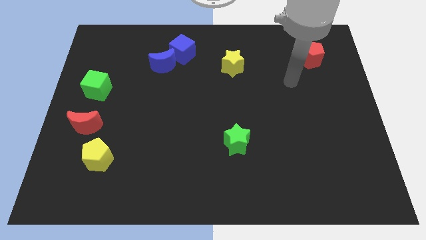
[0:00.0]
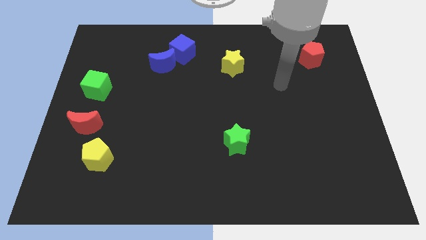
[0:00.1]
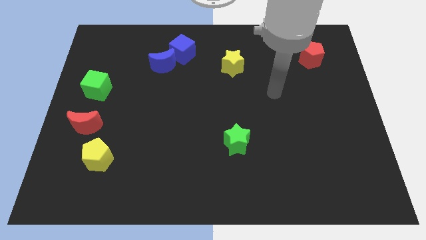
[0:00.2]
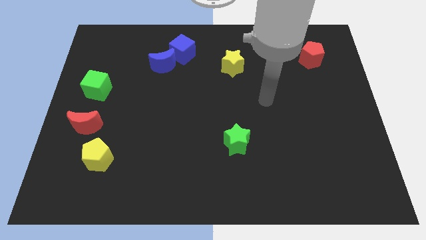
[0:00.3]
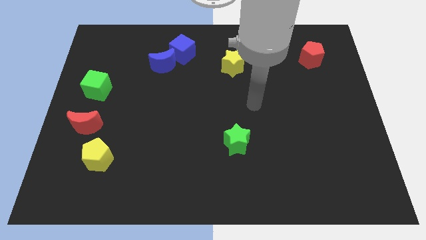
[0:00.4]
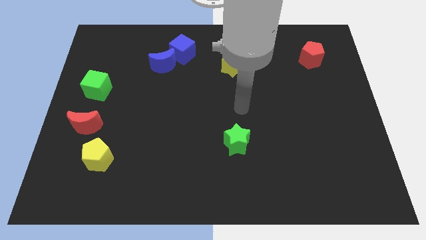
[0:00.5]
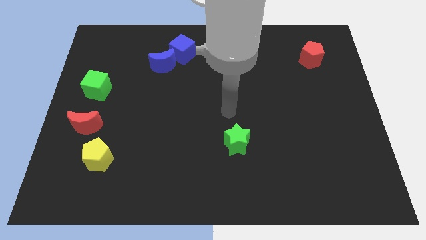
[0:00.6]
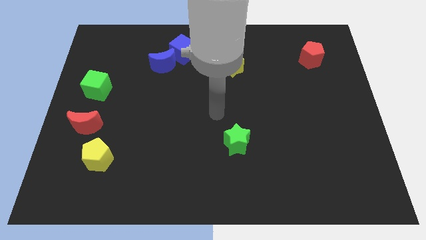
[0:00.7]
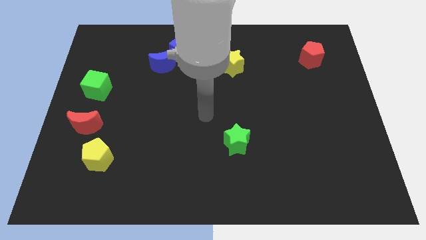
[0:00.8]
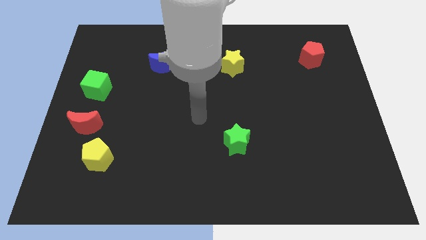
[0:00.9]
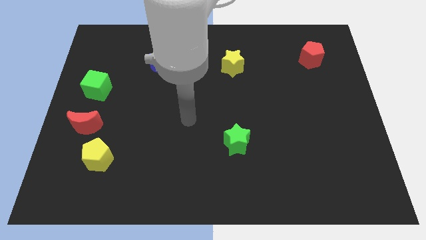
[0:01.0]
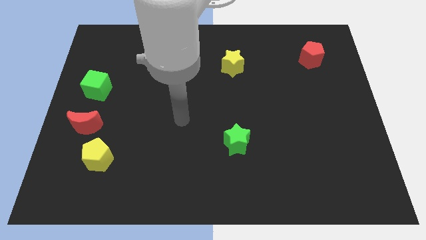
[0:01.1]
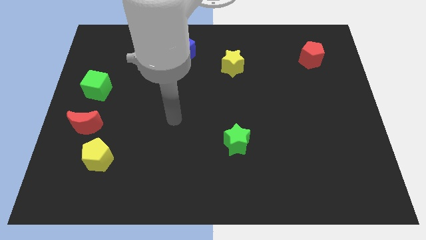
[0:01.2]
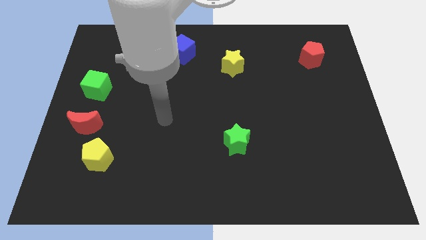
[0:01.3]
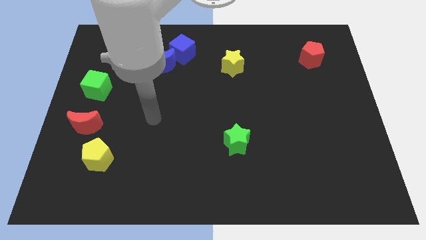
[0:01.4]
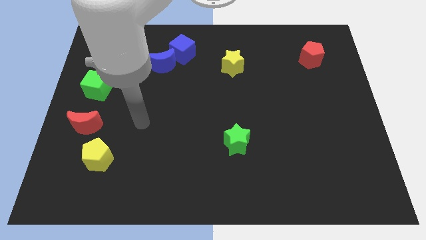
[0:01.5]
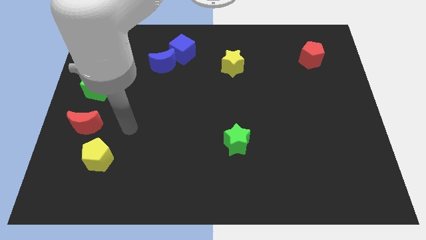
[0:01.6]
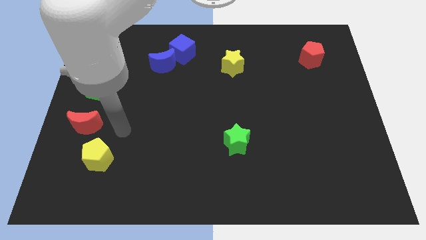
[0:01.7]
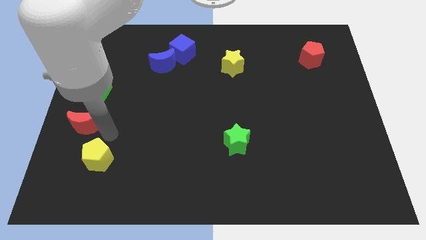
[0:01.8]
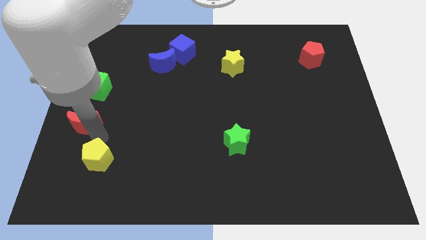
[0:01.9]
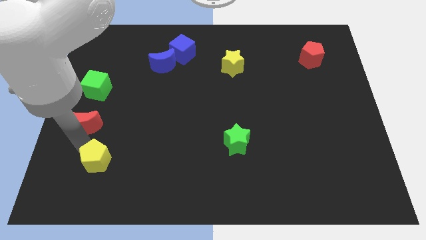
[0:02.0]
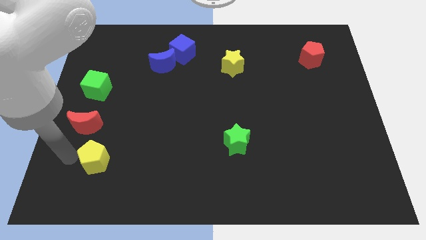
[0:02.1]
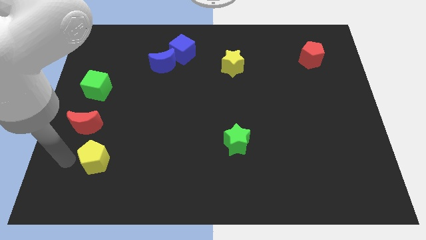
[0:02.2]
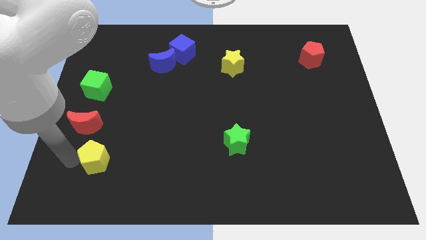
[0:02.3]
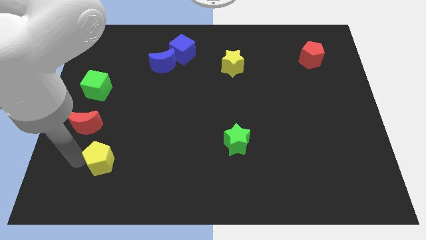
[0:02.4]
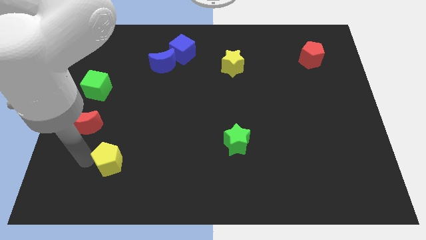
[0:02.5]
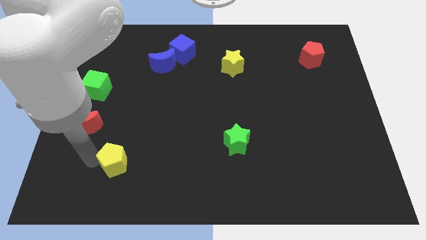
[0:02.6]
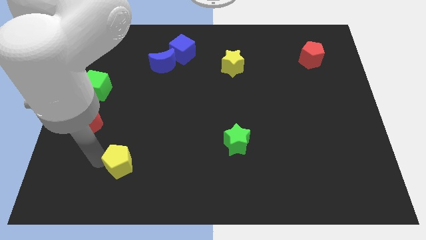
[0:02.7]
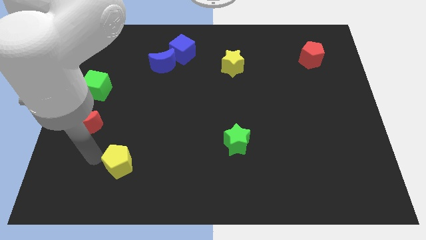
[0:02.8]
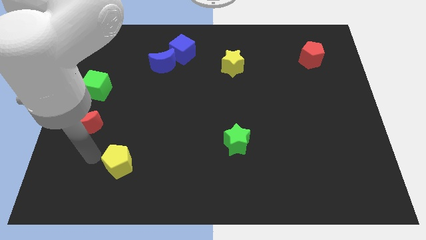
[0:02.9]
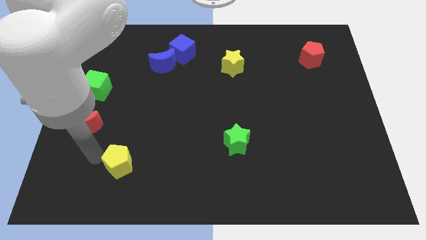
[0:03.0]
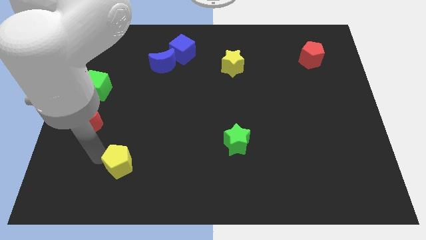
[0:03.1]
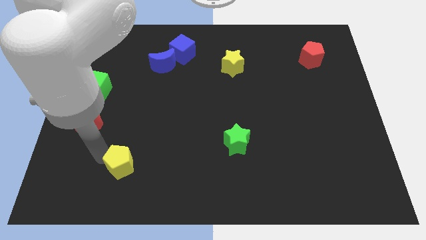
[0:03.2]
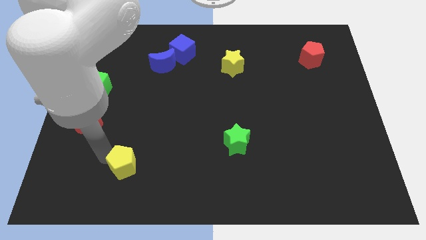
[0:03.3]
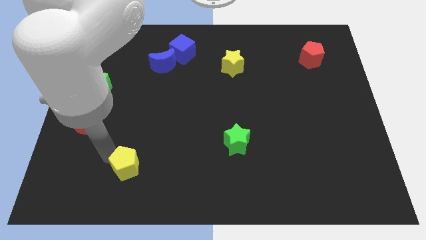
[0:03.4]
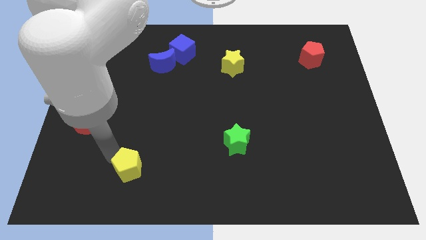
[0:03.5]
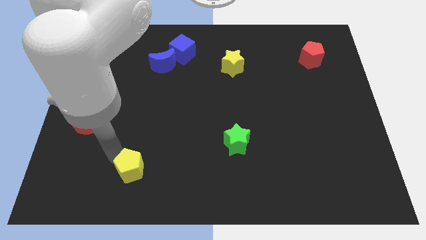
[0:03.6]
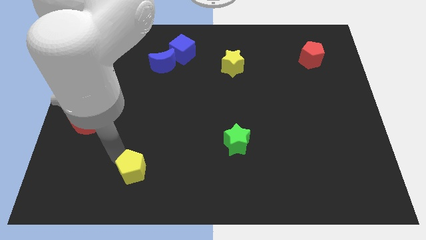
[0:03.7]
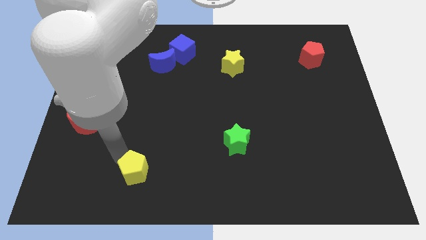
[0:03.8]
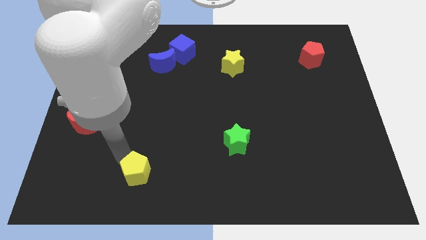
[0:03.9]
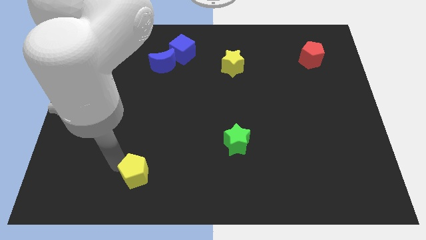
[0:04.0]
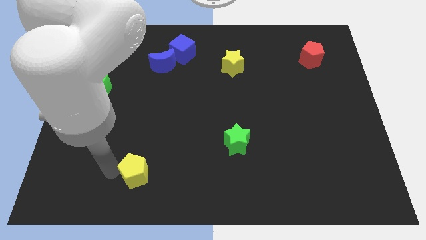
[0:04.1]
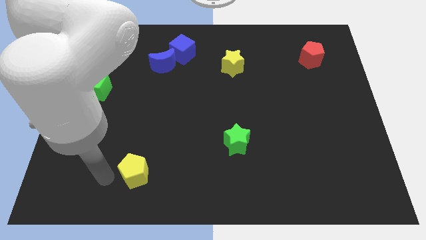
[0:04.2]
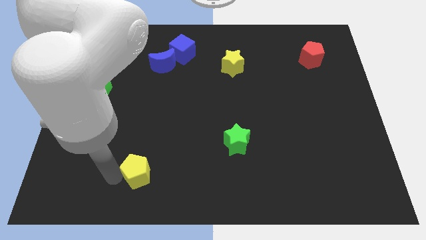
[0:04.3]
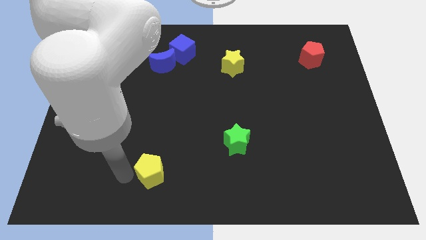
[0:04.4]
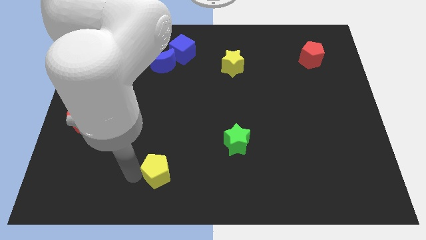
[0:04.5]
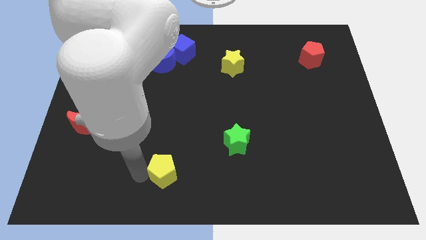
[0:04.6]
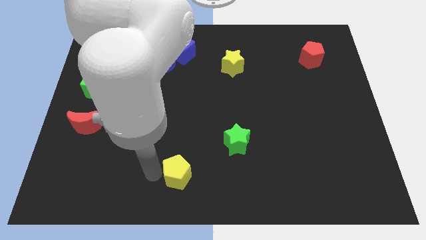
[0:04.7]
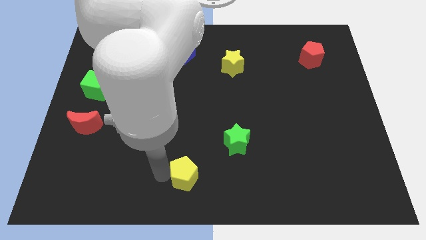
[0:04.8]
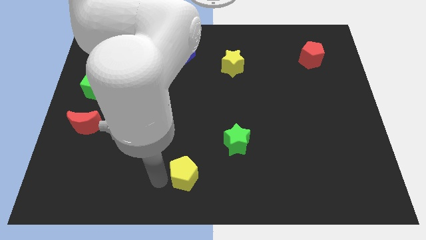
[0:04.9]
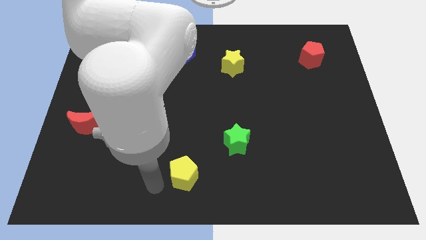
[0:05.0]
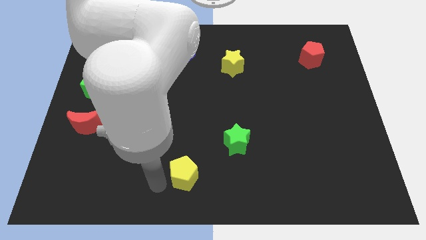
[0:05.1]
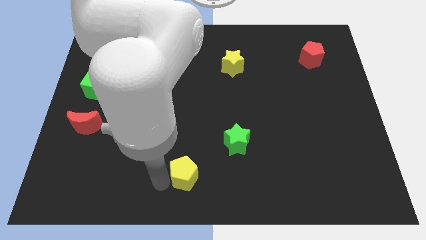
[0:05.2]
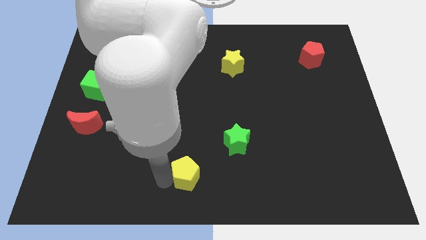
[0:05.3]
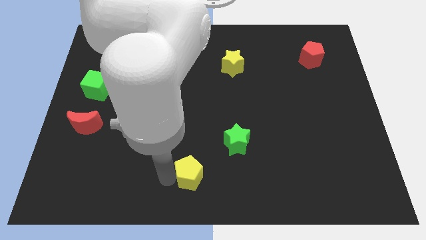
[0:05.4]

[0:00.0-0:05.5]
push the yellow pentagon diagonally down and to the left of the green star

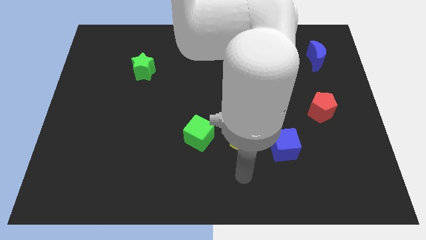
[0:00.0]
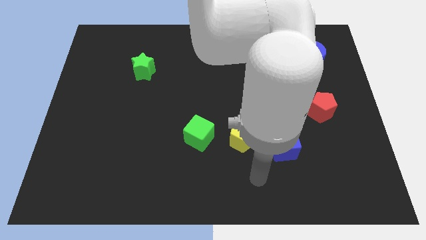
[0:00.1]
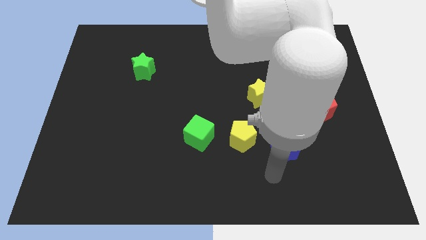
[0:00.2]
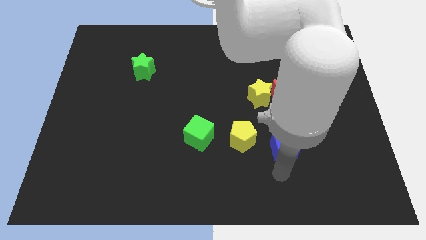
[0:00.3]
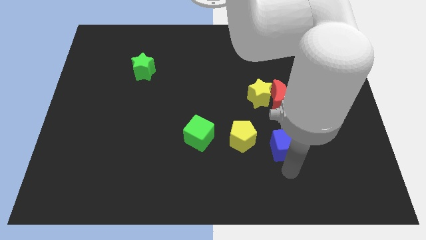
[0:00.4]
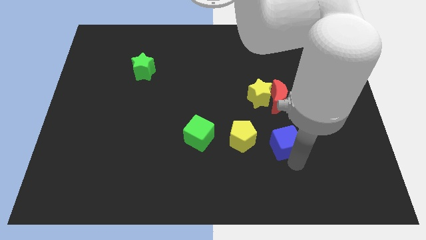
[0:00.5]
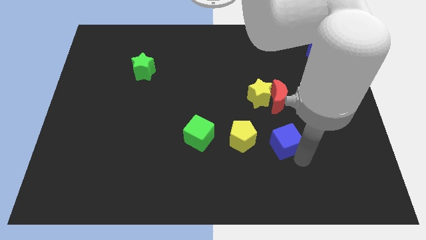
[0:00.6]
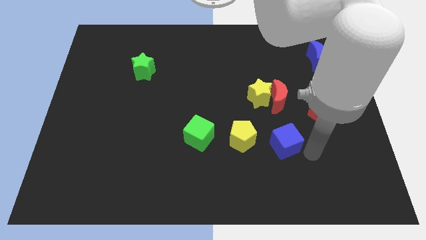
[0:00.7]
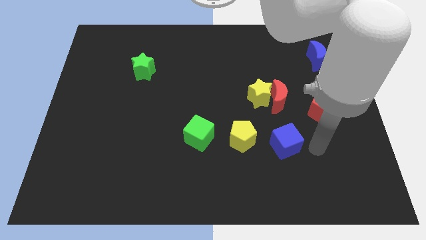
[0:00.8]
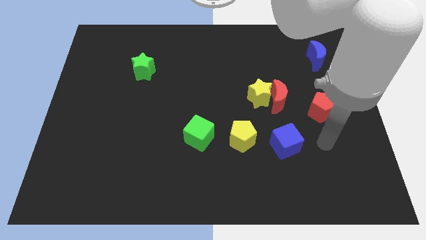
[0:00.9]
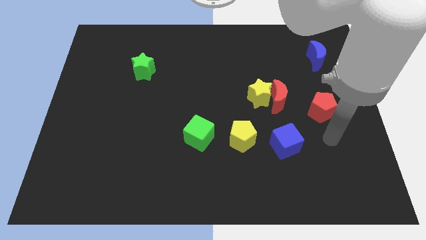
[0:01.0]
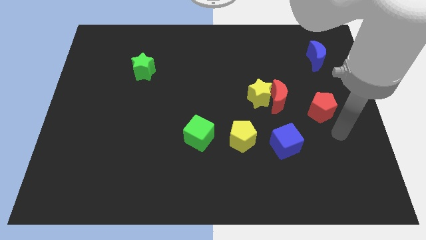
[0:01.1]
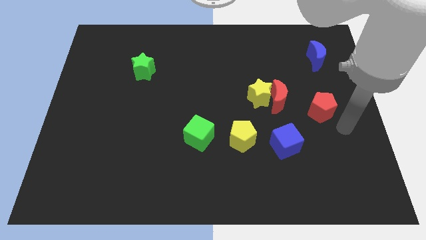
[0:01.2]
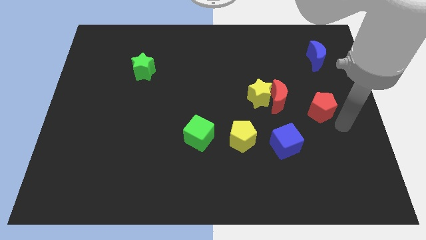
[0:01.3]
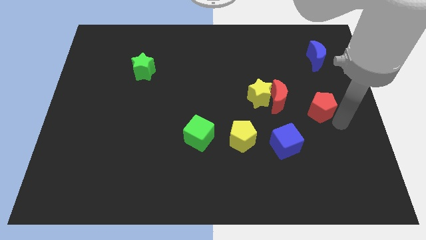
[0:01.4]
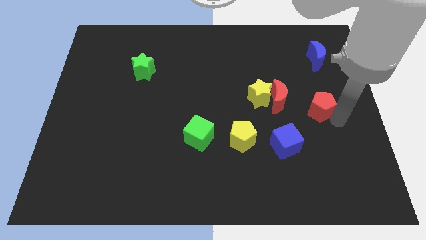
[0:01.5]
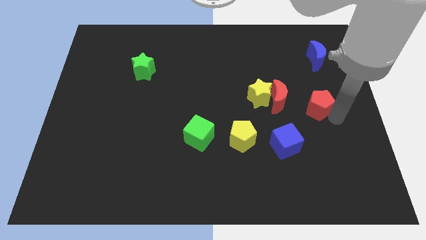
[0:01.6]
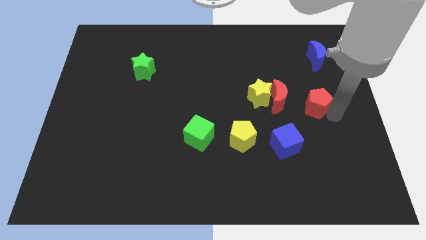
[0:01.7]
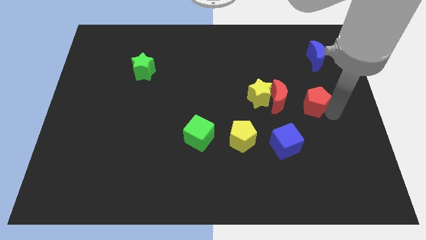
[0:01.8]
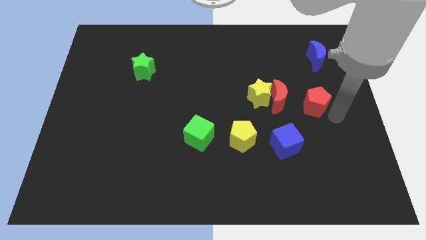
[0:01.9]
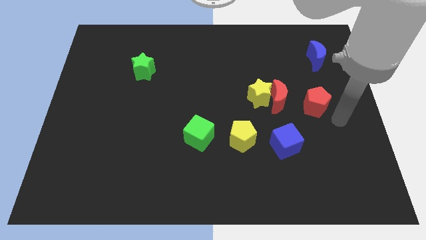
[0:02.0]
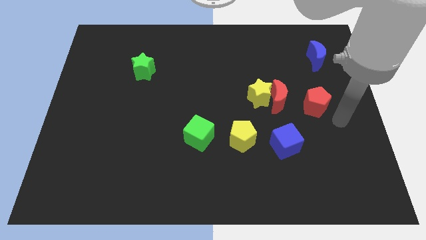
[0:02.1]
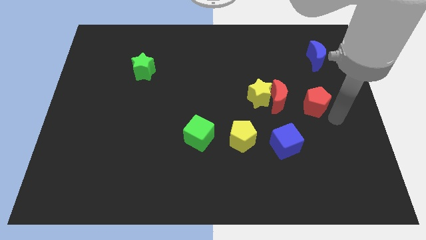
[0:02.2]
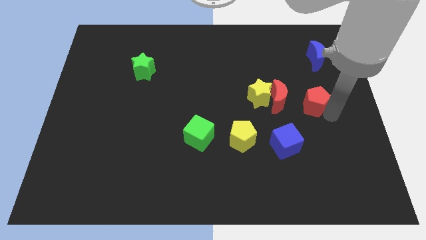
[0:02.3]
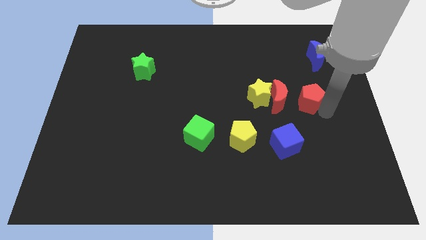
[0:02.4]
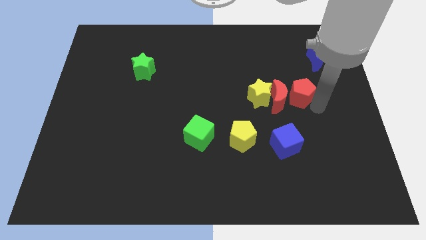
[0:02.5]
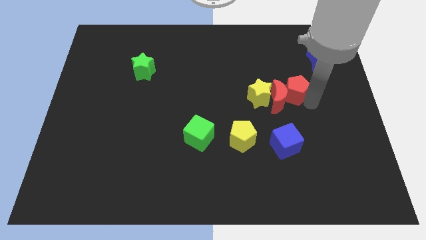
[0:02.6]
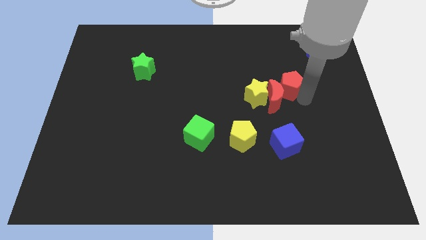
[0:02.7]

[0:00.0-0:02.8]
move the red pentagon diagonally up and to the right of the yellow star
